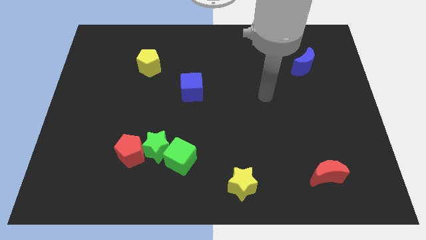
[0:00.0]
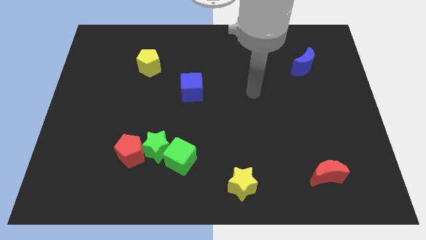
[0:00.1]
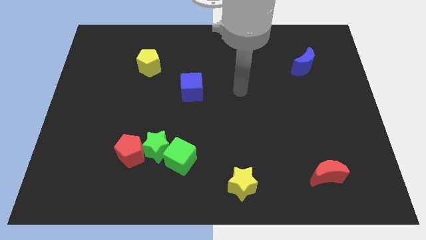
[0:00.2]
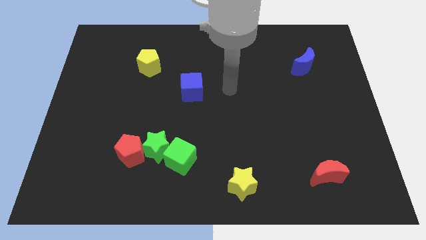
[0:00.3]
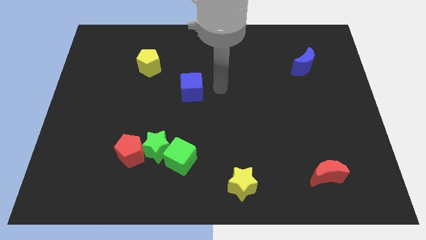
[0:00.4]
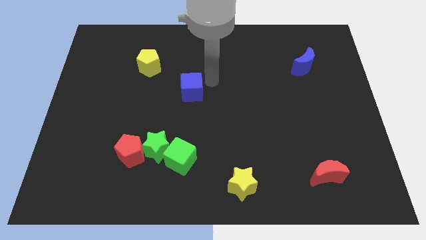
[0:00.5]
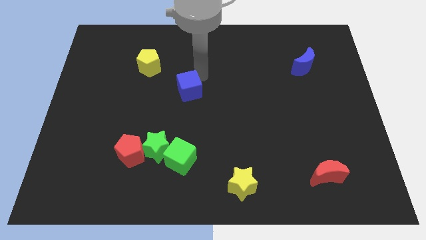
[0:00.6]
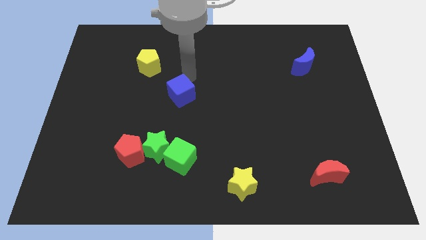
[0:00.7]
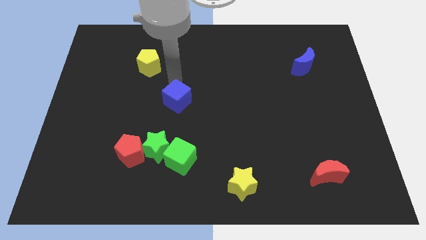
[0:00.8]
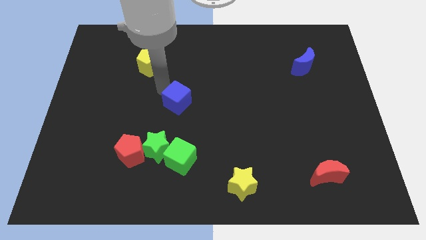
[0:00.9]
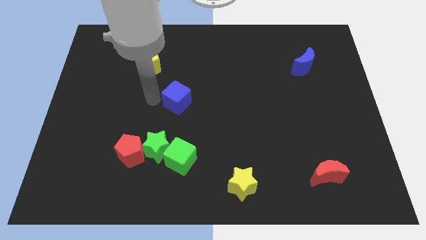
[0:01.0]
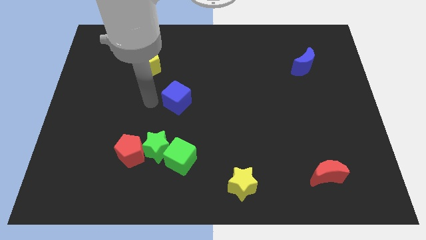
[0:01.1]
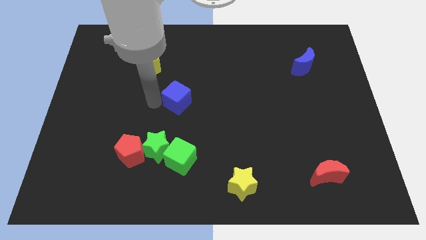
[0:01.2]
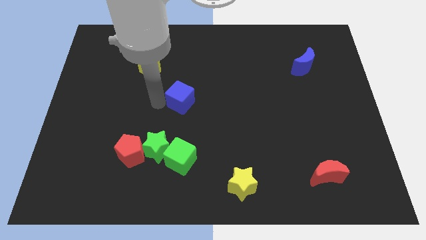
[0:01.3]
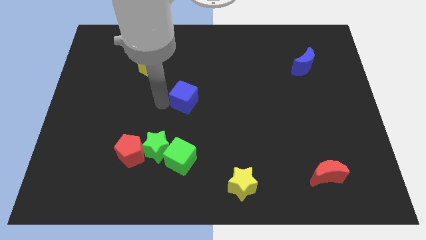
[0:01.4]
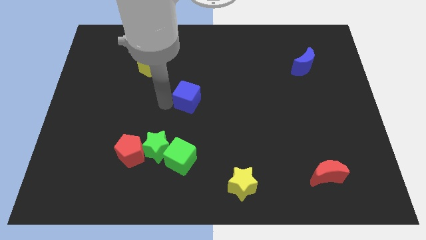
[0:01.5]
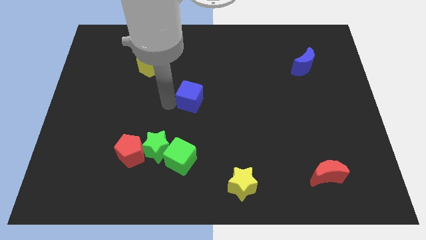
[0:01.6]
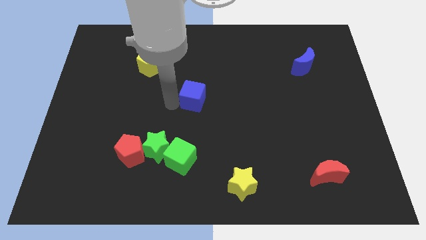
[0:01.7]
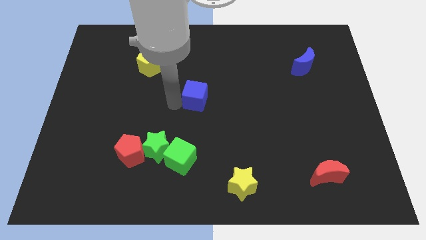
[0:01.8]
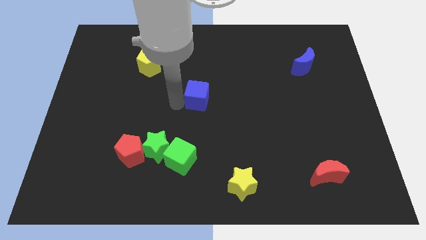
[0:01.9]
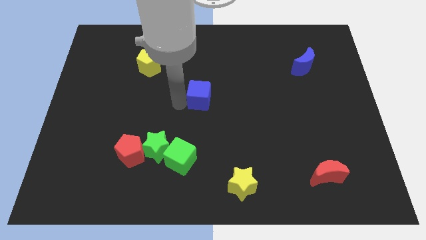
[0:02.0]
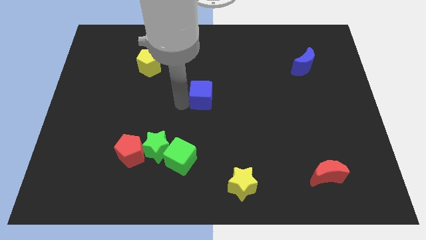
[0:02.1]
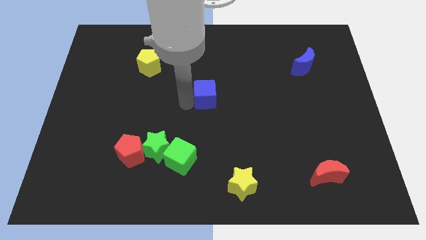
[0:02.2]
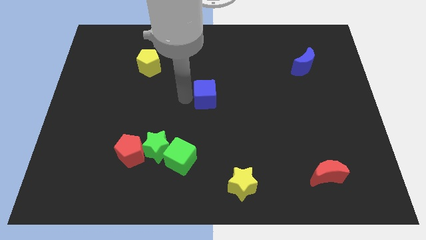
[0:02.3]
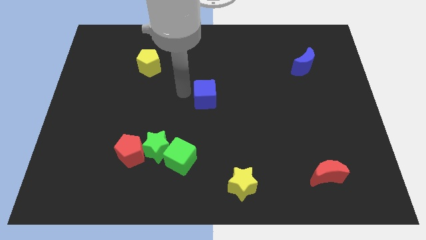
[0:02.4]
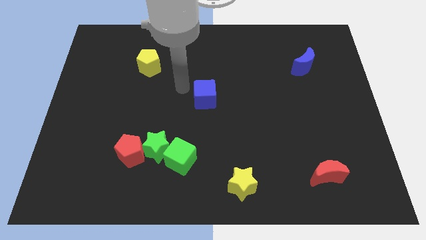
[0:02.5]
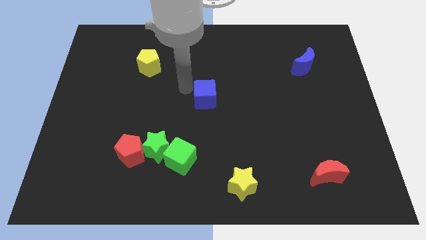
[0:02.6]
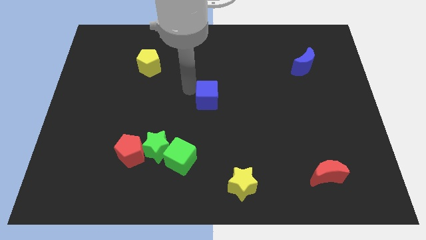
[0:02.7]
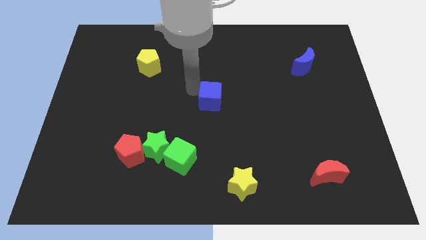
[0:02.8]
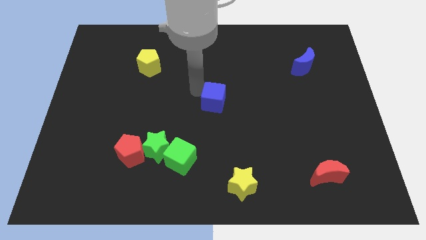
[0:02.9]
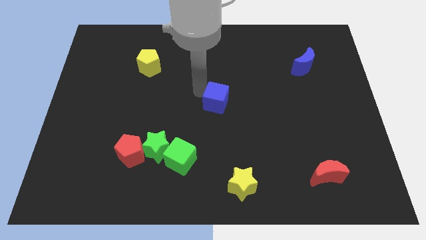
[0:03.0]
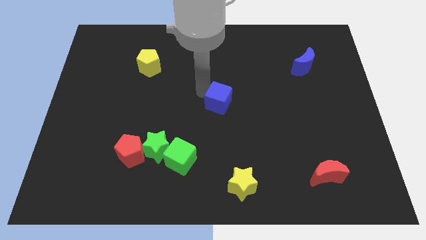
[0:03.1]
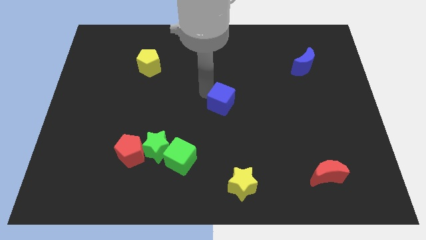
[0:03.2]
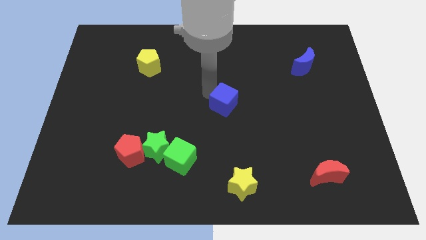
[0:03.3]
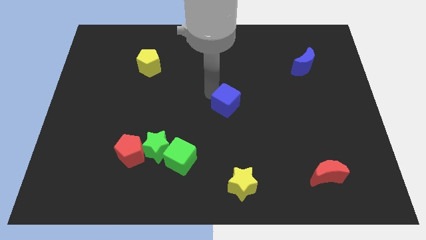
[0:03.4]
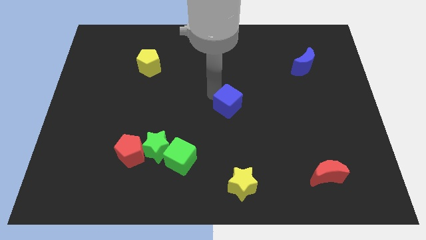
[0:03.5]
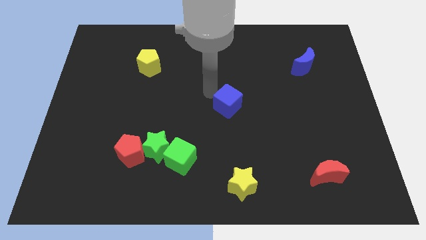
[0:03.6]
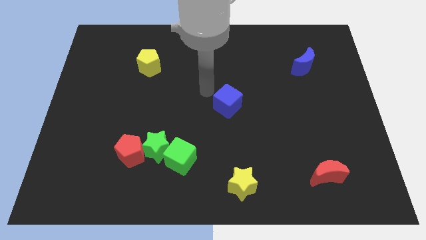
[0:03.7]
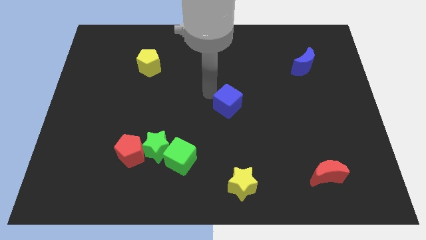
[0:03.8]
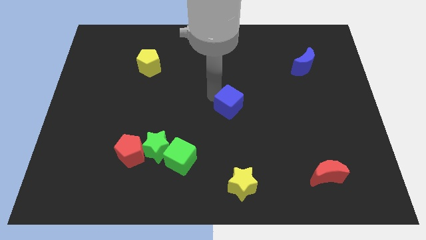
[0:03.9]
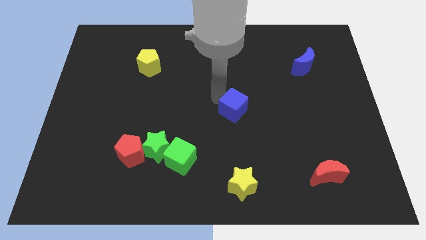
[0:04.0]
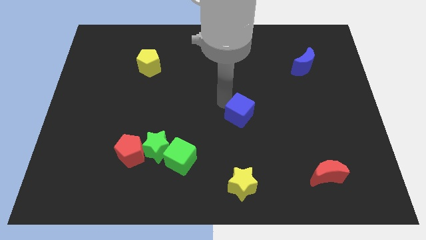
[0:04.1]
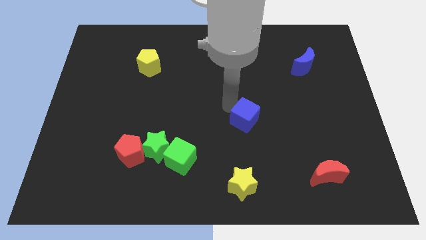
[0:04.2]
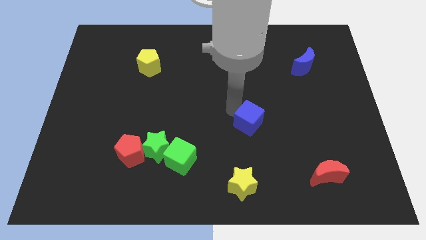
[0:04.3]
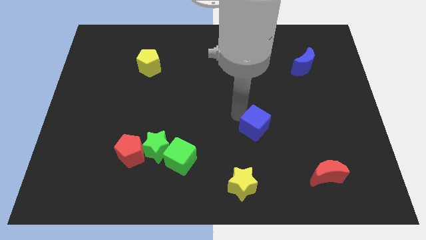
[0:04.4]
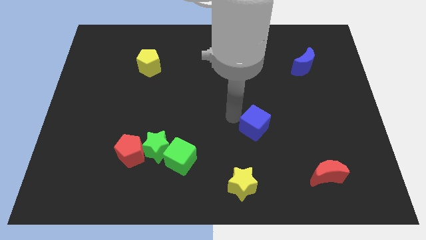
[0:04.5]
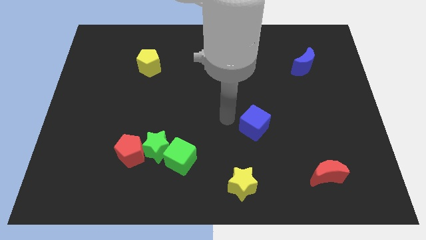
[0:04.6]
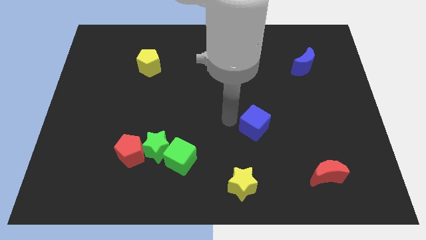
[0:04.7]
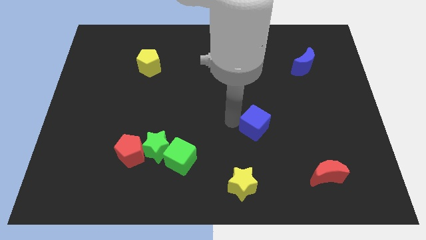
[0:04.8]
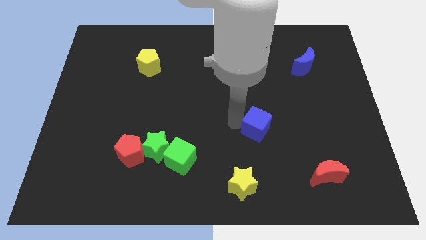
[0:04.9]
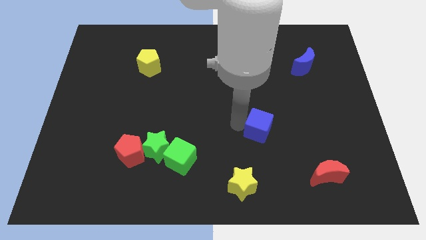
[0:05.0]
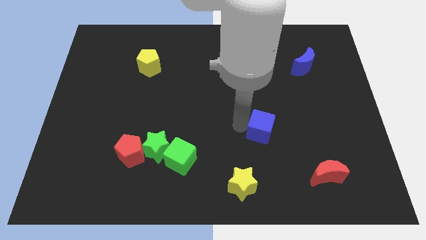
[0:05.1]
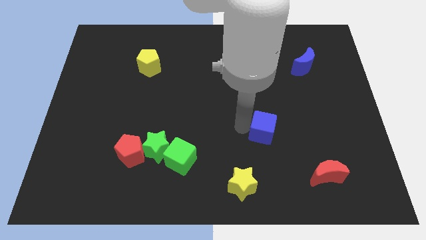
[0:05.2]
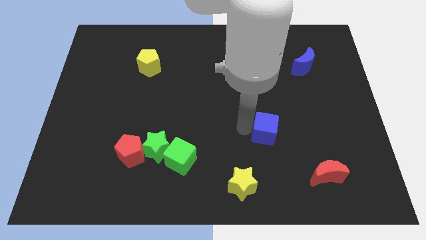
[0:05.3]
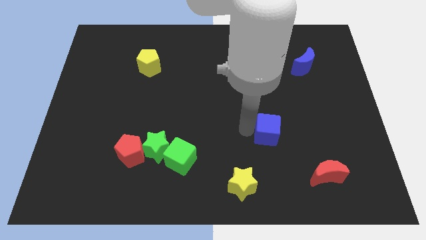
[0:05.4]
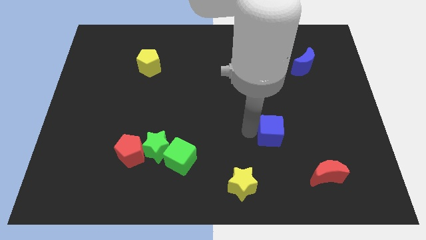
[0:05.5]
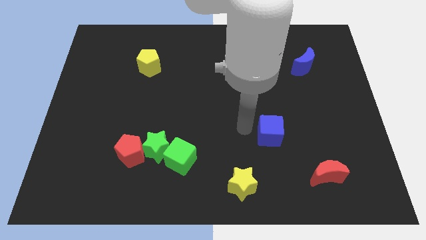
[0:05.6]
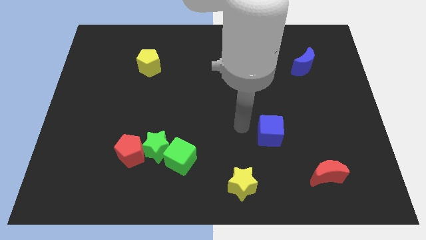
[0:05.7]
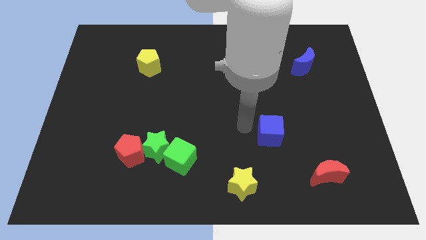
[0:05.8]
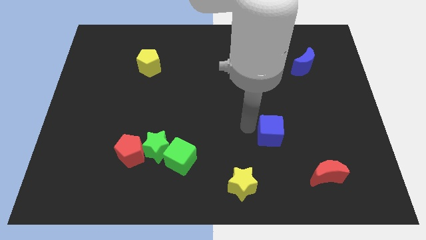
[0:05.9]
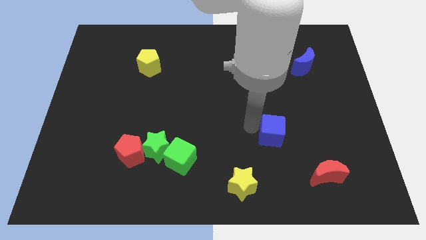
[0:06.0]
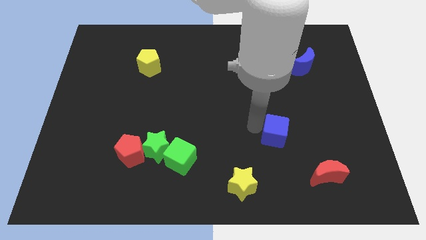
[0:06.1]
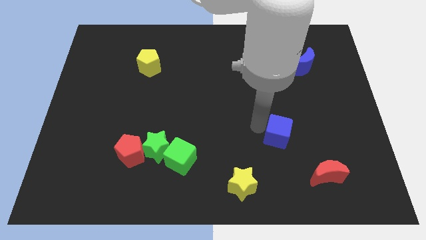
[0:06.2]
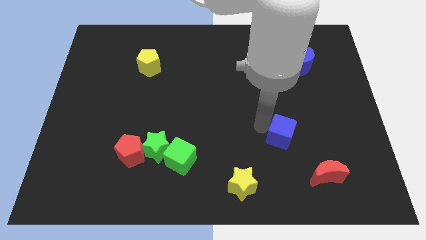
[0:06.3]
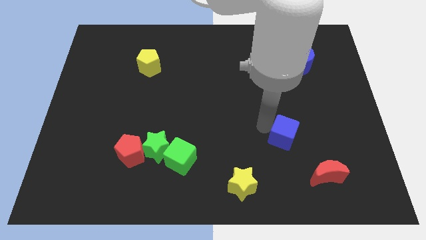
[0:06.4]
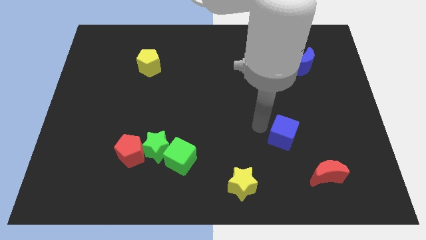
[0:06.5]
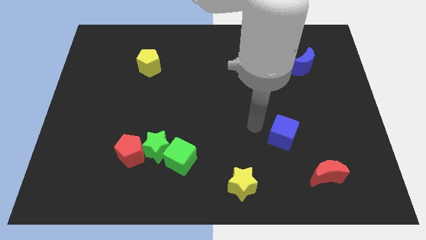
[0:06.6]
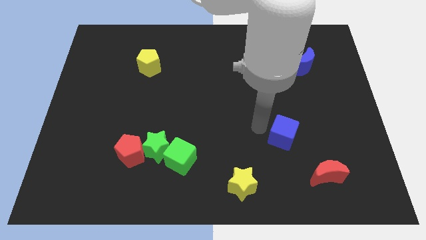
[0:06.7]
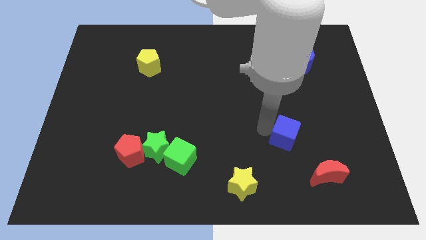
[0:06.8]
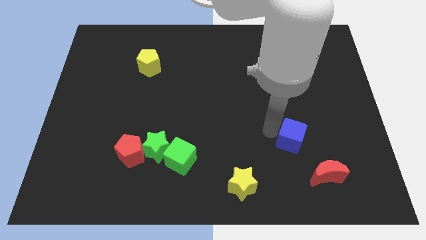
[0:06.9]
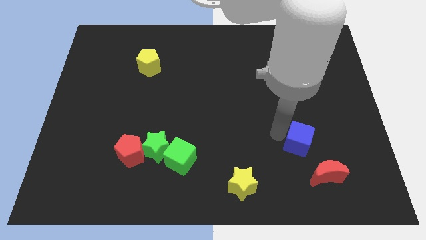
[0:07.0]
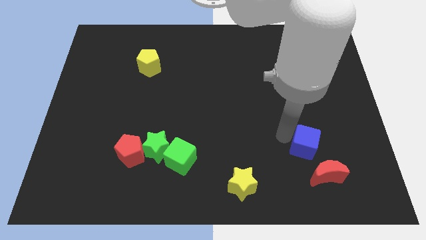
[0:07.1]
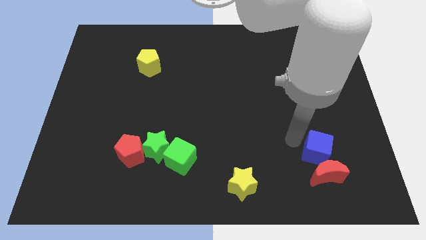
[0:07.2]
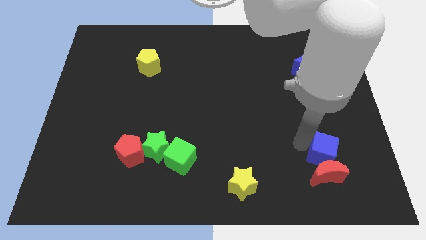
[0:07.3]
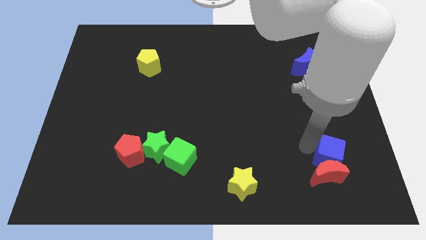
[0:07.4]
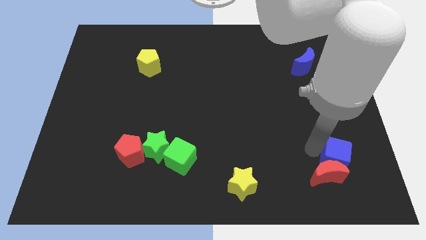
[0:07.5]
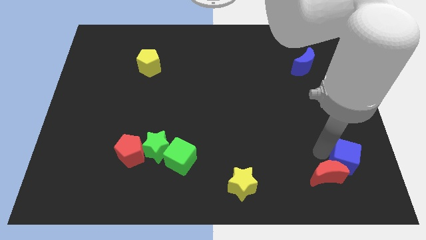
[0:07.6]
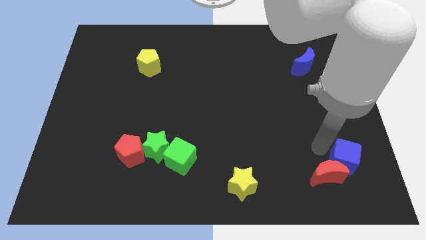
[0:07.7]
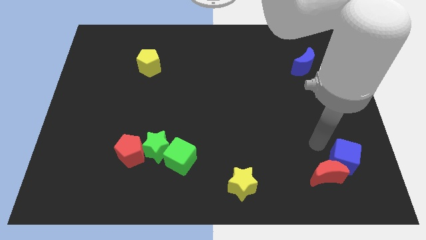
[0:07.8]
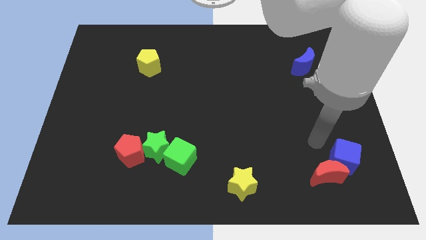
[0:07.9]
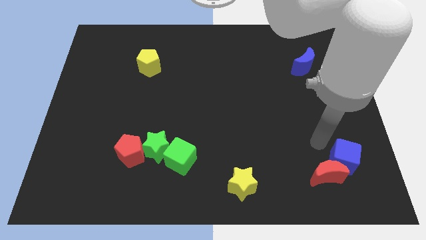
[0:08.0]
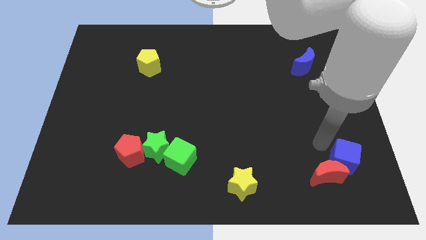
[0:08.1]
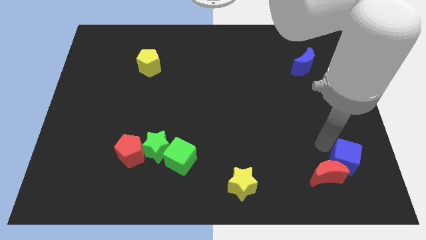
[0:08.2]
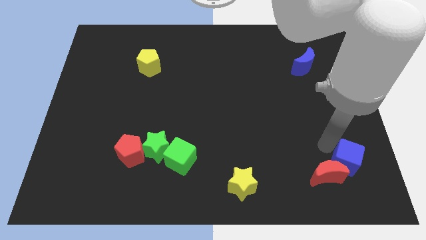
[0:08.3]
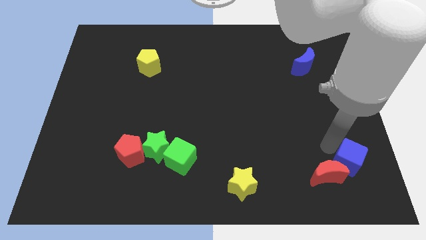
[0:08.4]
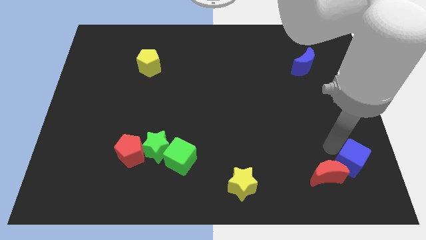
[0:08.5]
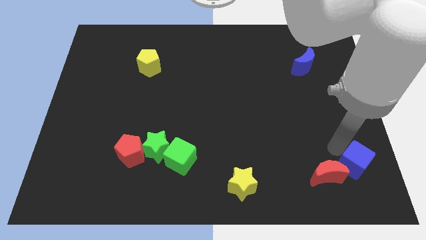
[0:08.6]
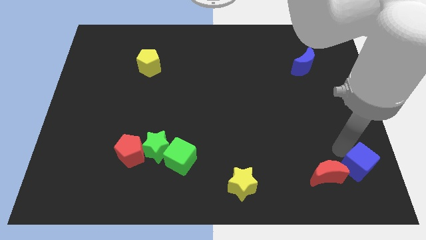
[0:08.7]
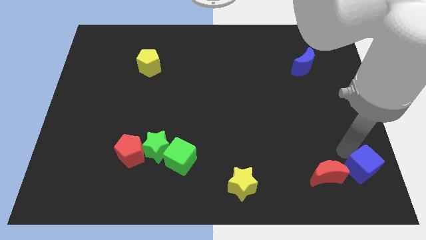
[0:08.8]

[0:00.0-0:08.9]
slide the blue cube to the bottom right of the board
